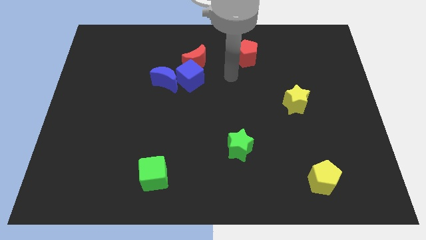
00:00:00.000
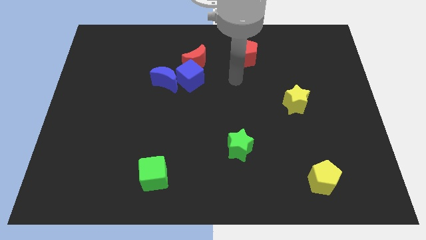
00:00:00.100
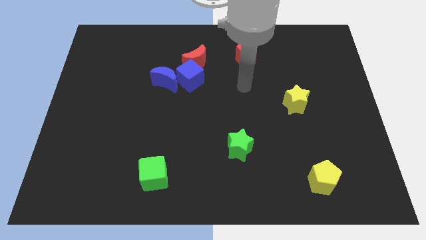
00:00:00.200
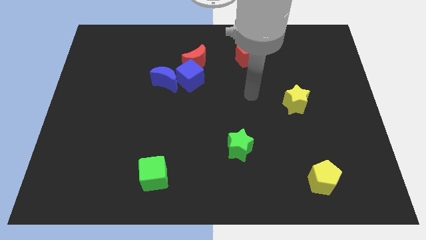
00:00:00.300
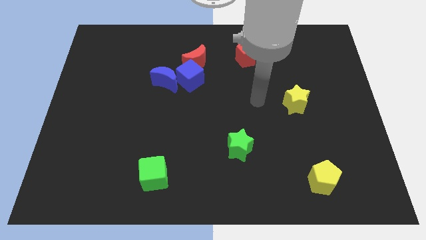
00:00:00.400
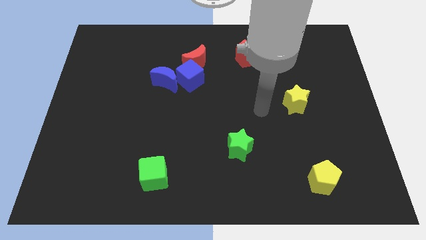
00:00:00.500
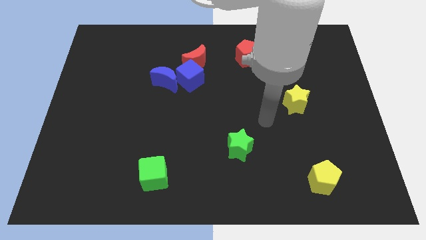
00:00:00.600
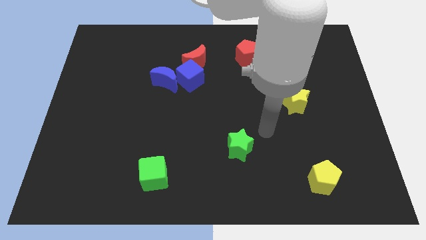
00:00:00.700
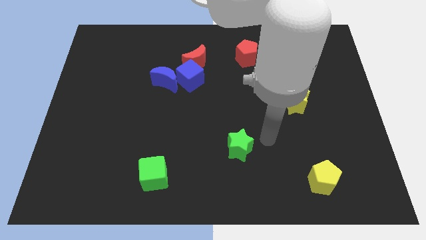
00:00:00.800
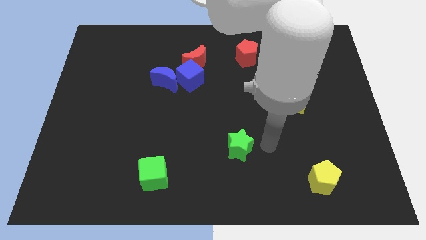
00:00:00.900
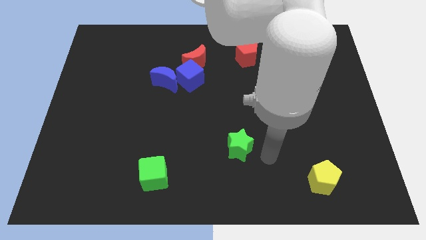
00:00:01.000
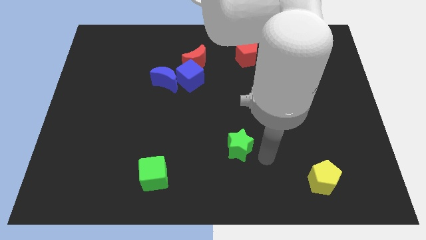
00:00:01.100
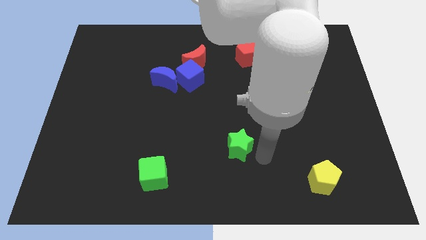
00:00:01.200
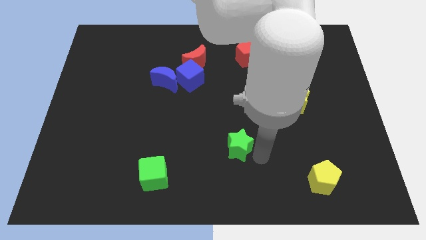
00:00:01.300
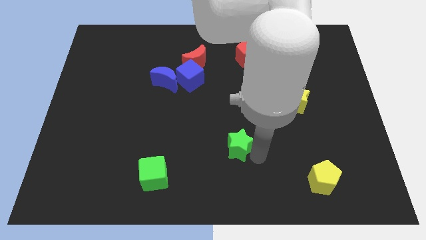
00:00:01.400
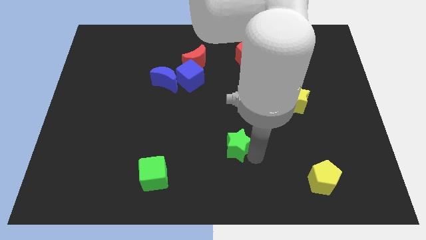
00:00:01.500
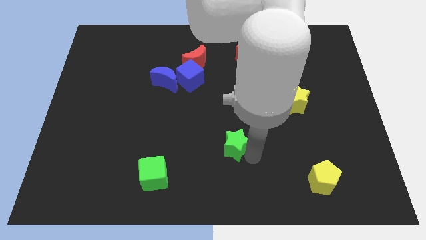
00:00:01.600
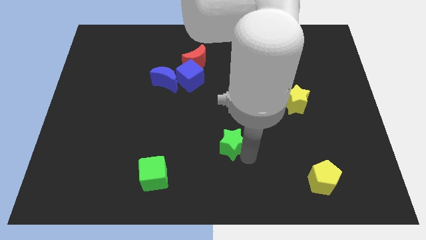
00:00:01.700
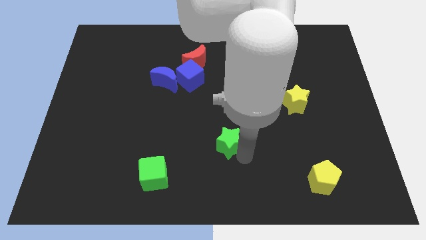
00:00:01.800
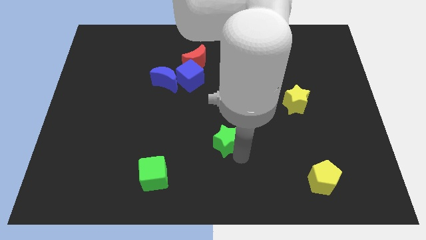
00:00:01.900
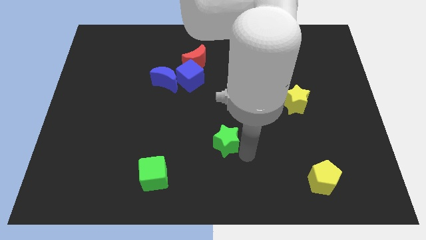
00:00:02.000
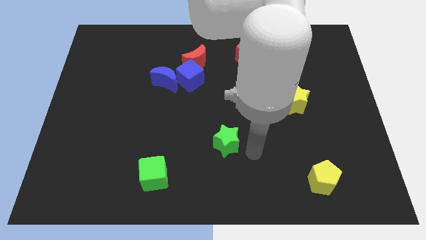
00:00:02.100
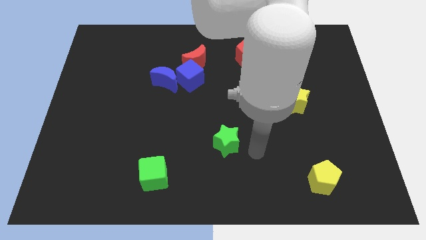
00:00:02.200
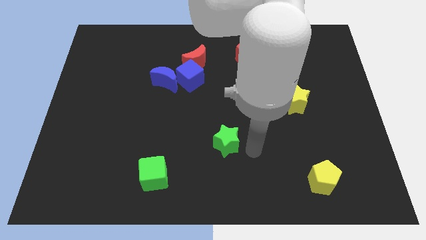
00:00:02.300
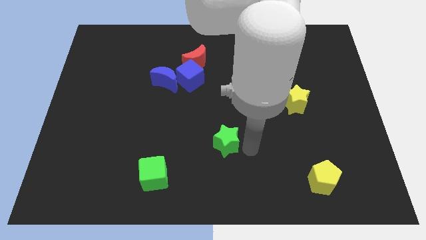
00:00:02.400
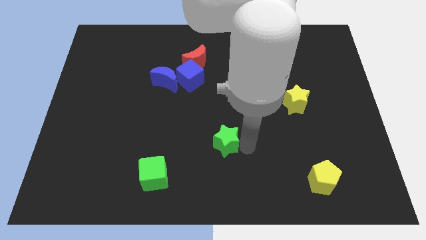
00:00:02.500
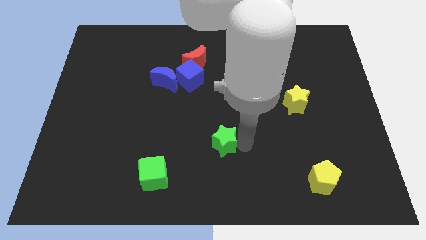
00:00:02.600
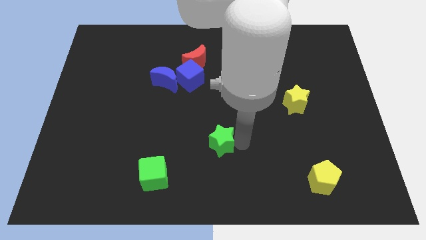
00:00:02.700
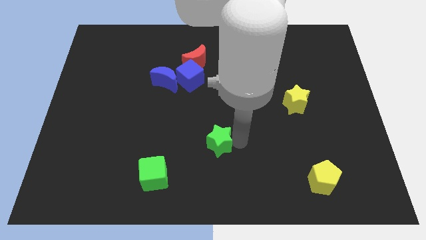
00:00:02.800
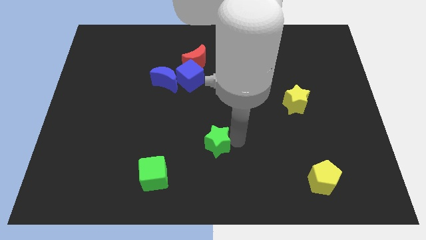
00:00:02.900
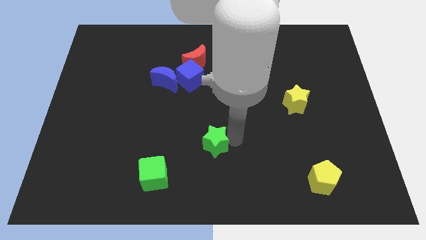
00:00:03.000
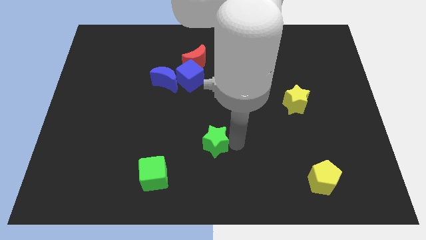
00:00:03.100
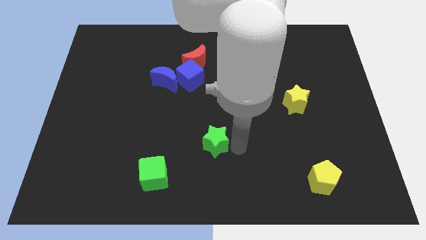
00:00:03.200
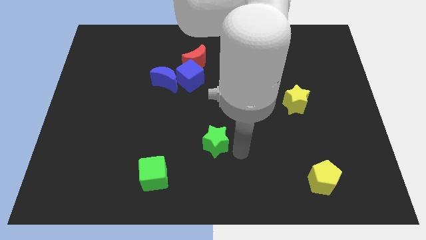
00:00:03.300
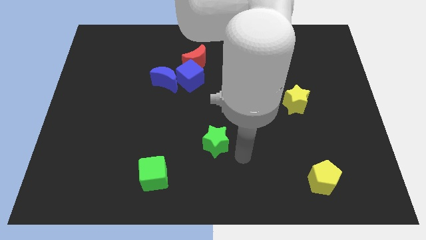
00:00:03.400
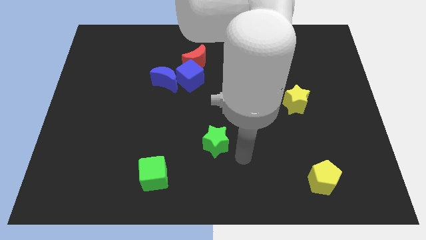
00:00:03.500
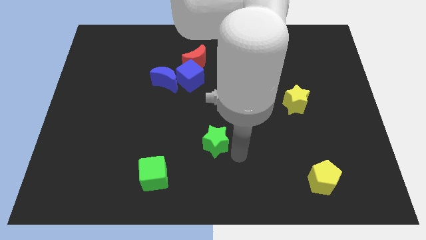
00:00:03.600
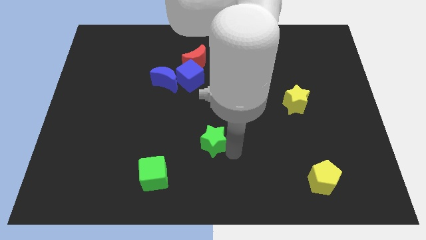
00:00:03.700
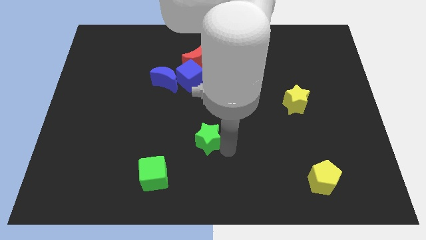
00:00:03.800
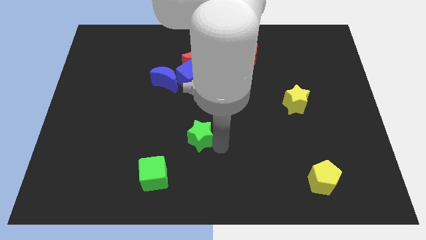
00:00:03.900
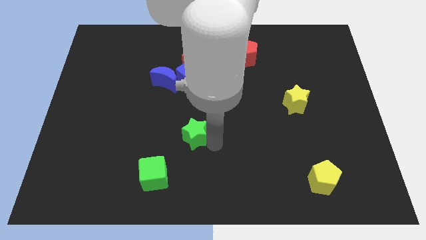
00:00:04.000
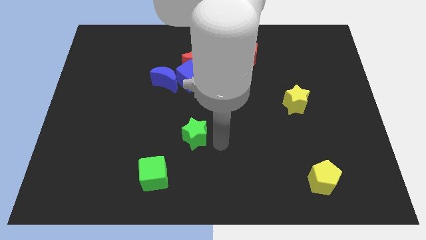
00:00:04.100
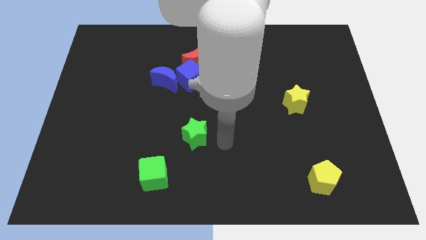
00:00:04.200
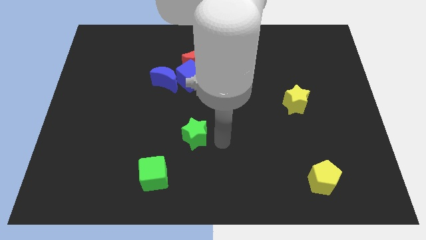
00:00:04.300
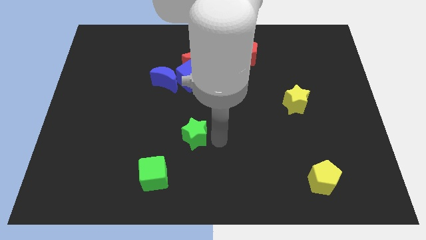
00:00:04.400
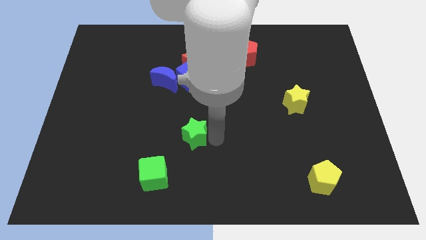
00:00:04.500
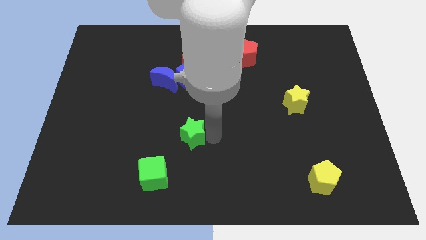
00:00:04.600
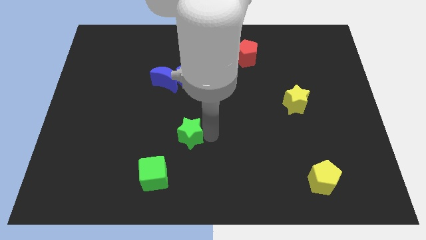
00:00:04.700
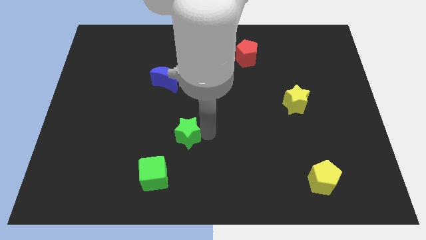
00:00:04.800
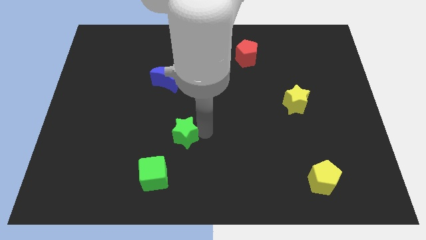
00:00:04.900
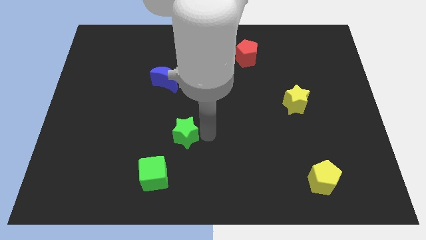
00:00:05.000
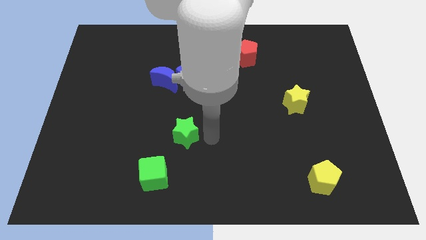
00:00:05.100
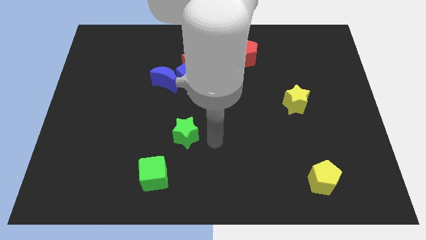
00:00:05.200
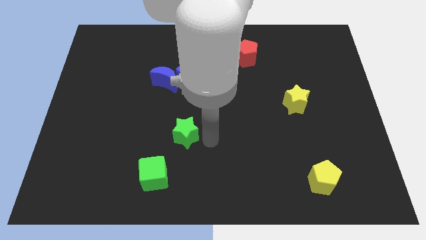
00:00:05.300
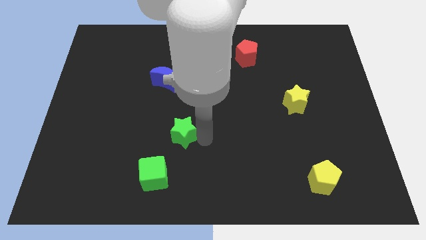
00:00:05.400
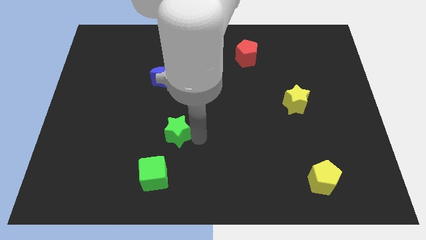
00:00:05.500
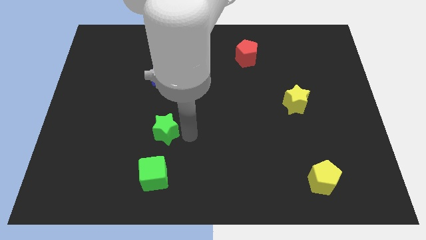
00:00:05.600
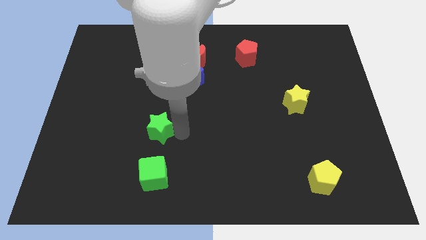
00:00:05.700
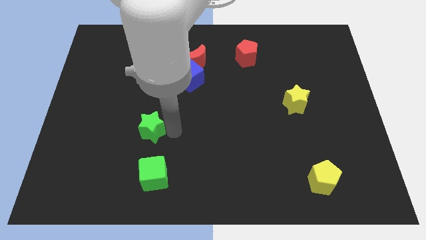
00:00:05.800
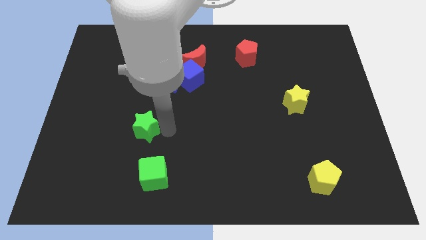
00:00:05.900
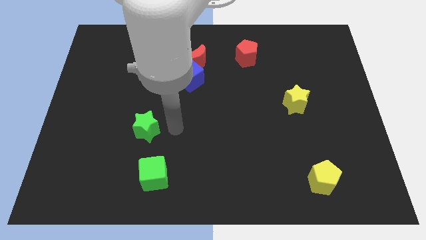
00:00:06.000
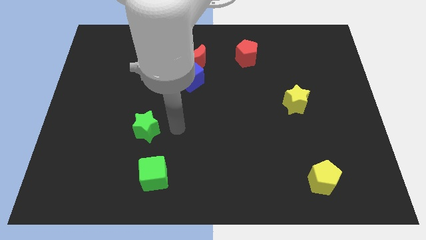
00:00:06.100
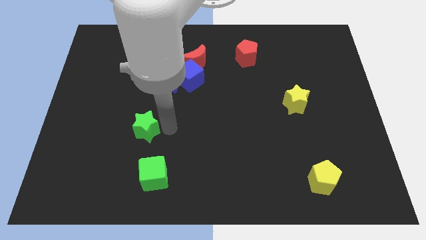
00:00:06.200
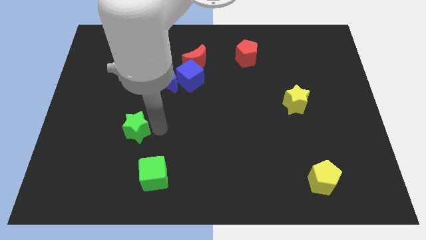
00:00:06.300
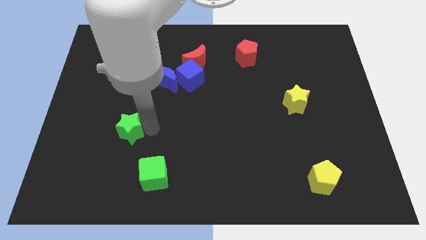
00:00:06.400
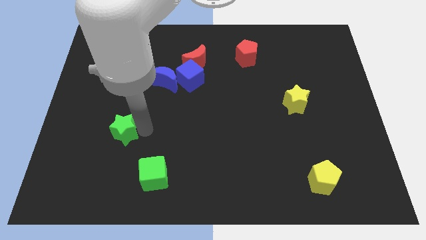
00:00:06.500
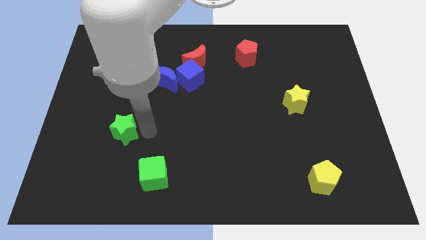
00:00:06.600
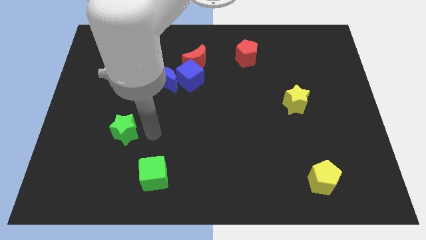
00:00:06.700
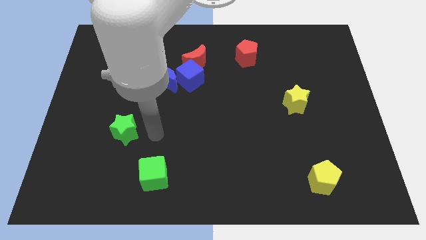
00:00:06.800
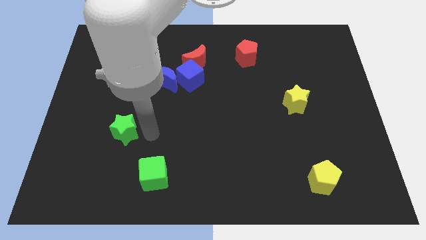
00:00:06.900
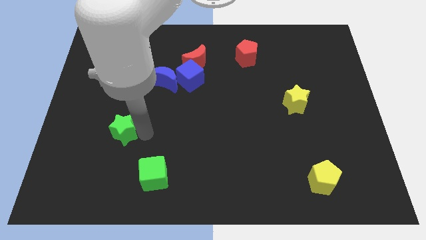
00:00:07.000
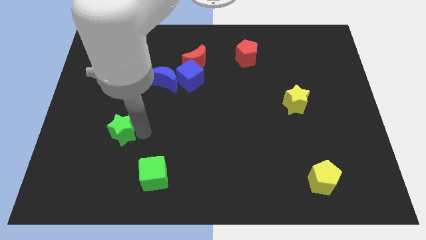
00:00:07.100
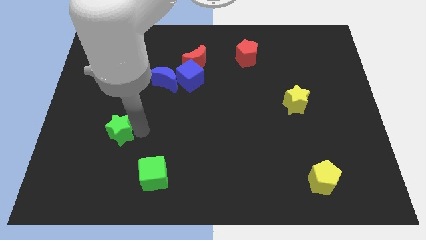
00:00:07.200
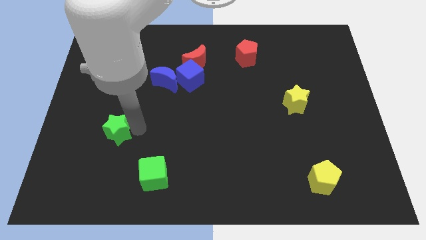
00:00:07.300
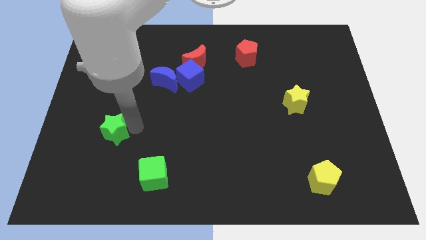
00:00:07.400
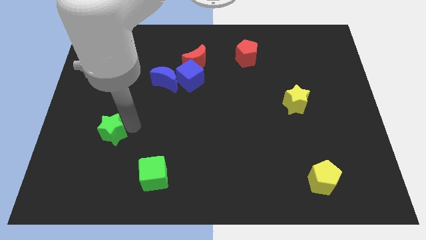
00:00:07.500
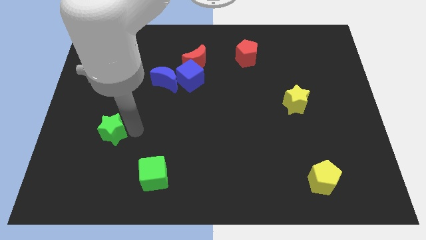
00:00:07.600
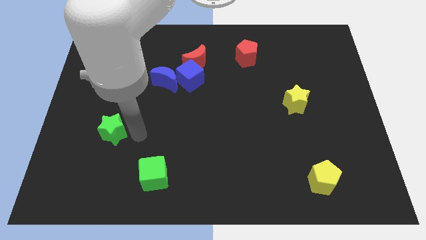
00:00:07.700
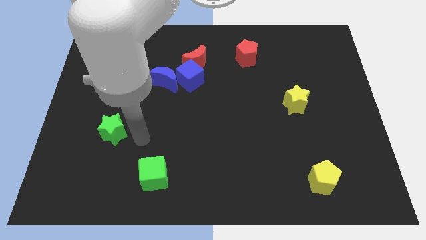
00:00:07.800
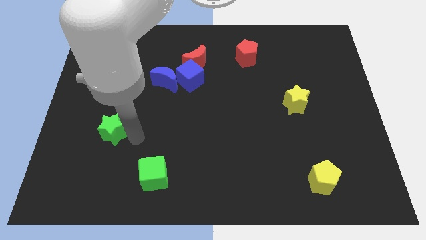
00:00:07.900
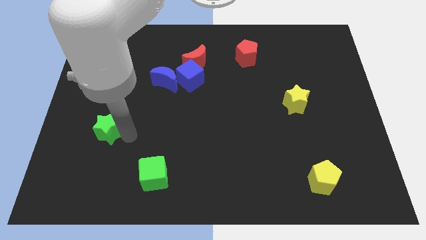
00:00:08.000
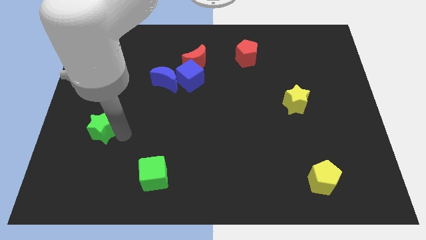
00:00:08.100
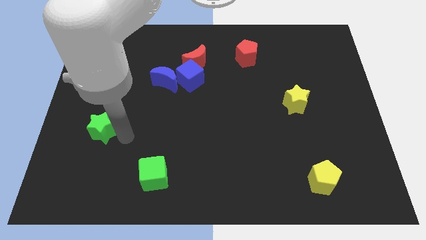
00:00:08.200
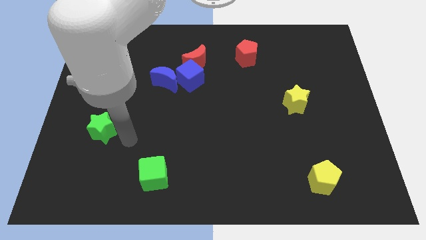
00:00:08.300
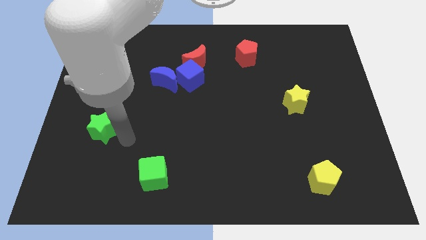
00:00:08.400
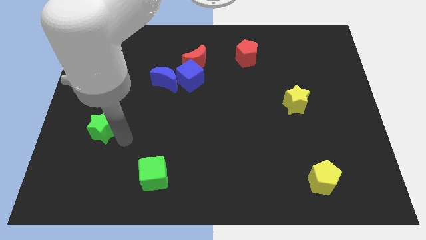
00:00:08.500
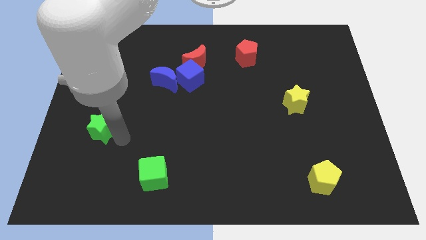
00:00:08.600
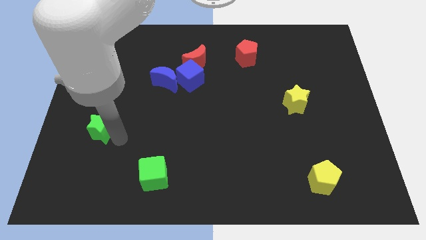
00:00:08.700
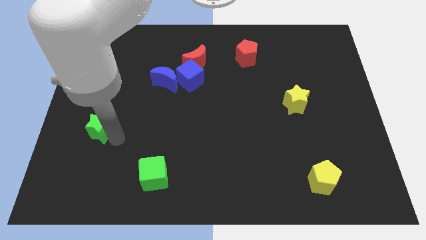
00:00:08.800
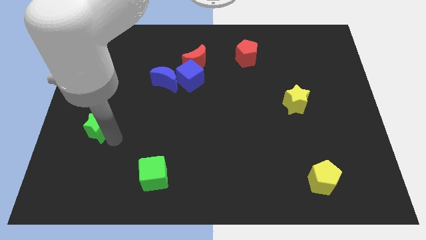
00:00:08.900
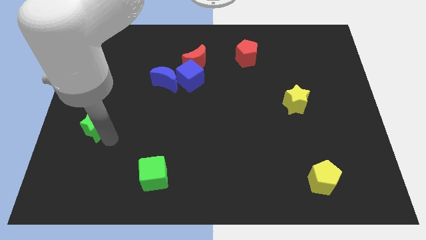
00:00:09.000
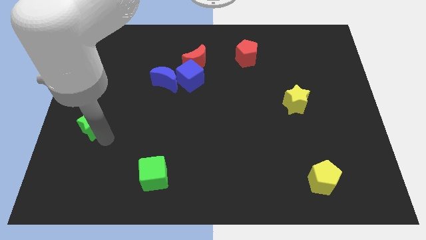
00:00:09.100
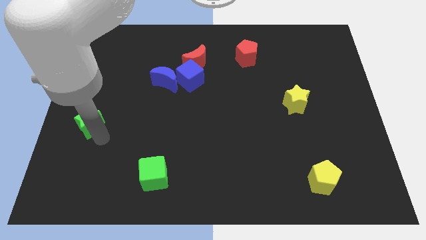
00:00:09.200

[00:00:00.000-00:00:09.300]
slide the green star to the left side of the board
